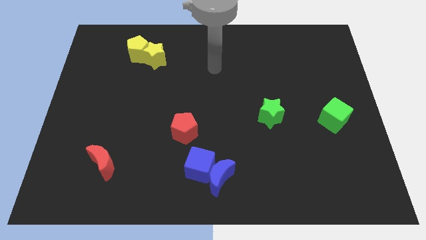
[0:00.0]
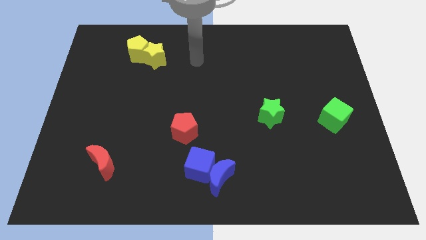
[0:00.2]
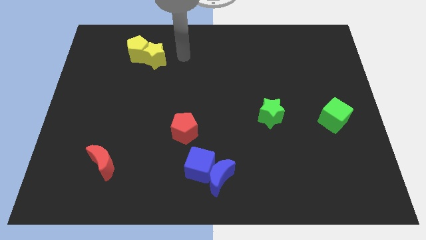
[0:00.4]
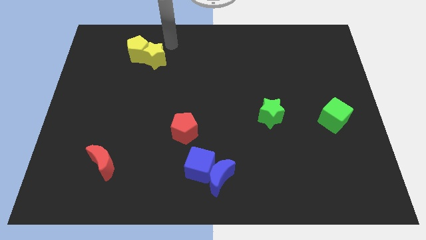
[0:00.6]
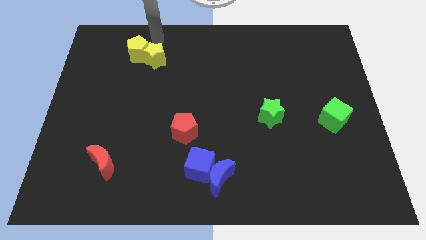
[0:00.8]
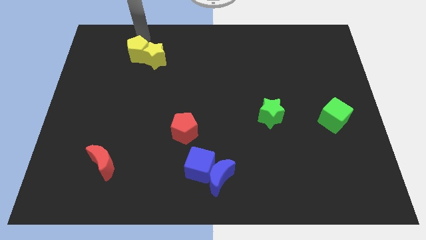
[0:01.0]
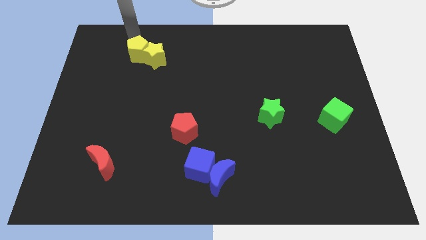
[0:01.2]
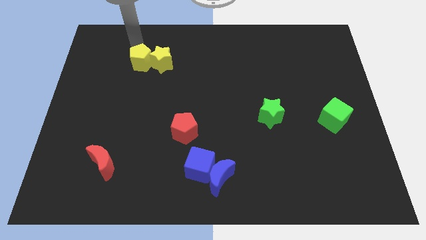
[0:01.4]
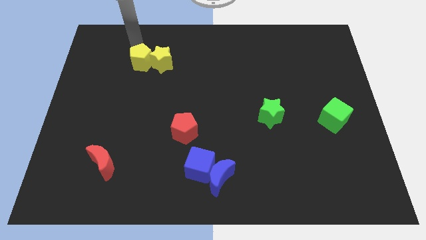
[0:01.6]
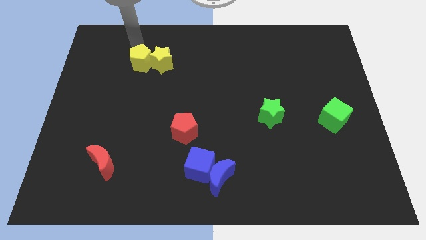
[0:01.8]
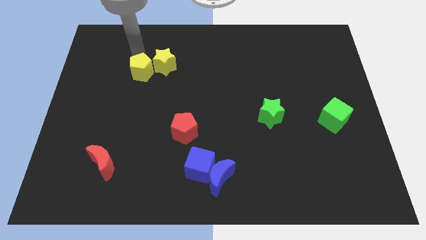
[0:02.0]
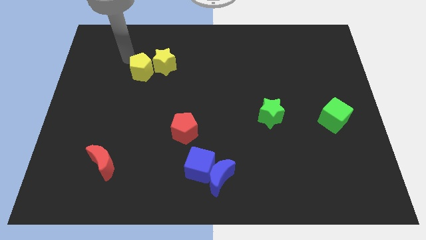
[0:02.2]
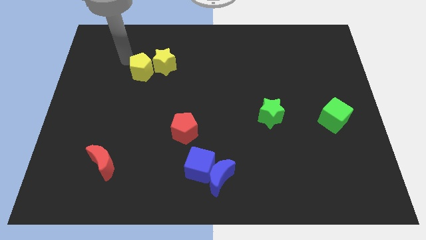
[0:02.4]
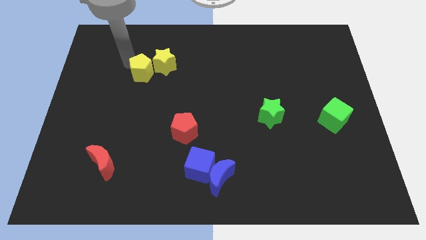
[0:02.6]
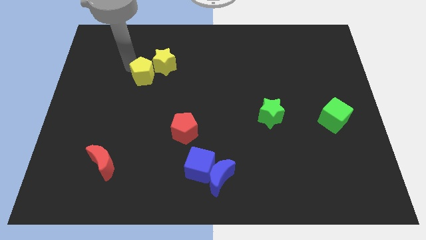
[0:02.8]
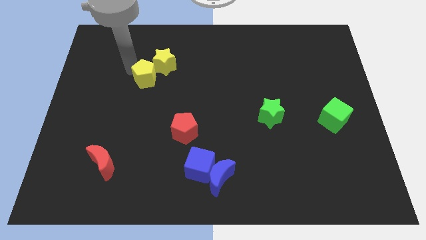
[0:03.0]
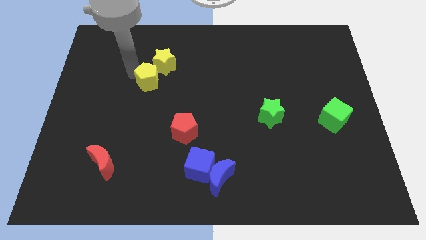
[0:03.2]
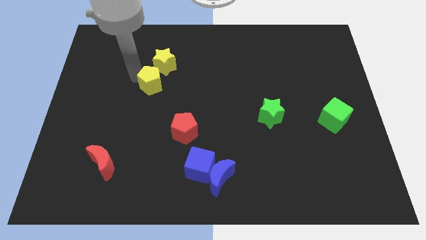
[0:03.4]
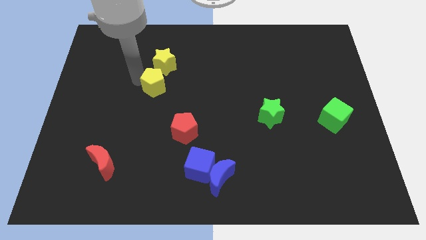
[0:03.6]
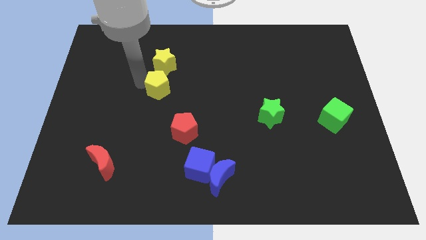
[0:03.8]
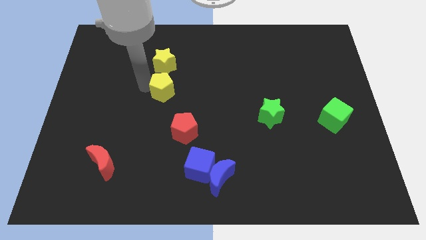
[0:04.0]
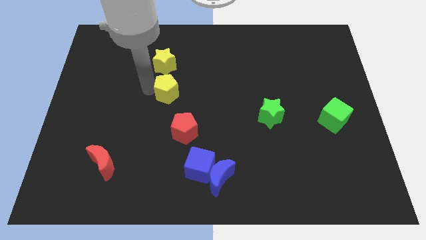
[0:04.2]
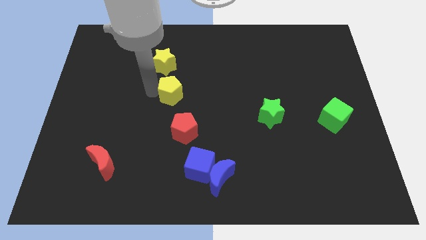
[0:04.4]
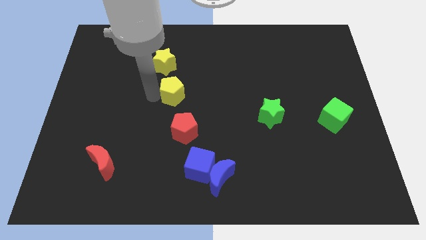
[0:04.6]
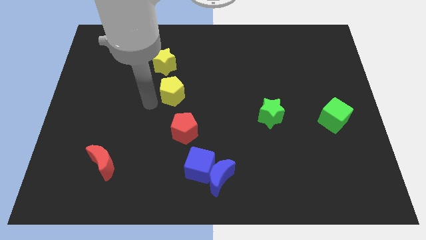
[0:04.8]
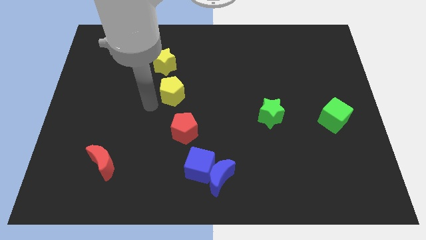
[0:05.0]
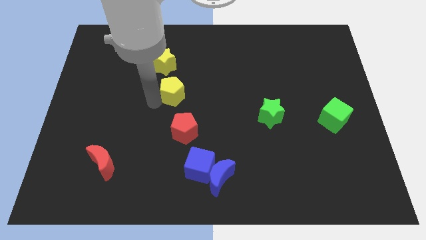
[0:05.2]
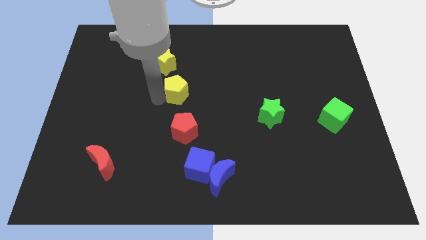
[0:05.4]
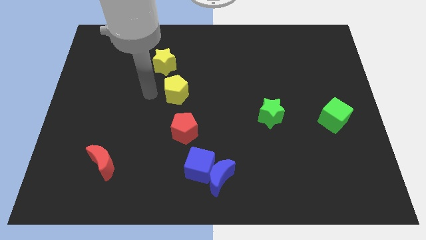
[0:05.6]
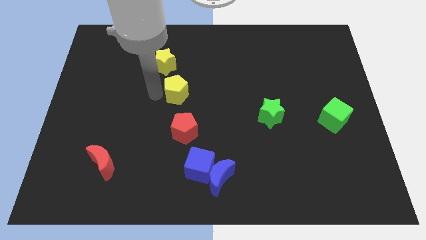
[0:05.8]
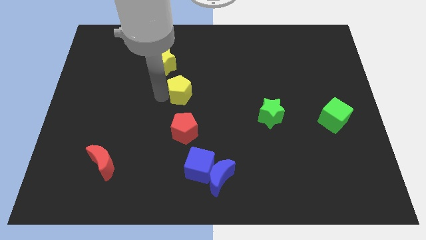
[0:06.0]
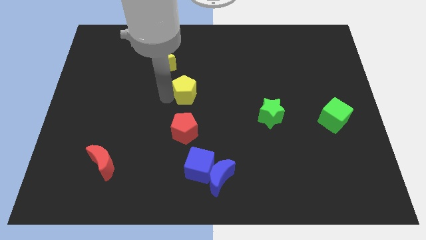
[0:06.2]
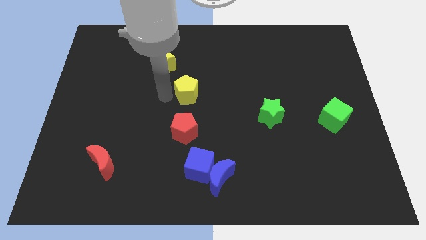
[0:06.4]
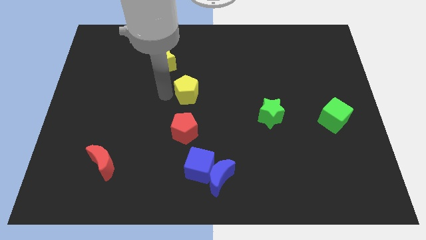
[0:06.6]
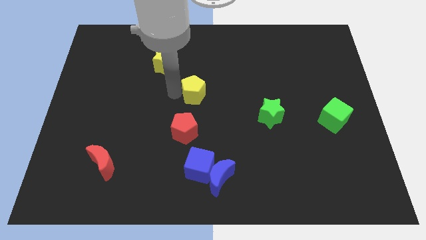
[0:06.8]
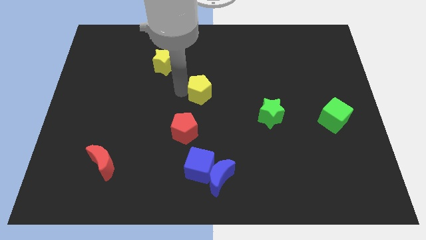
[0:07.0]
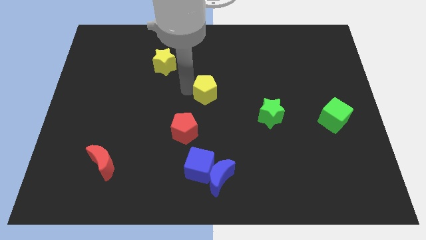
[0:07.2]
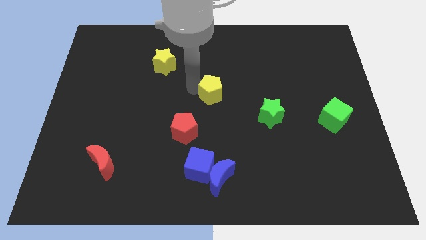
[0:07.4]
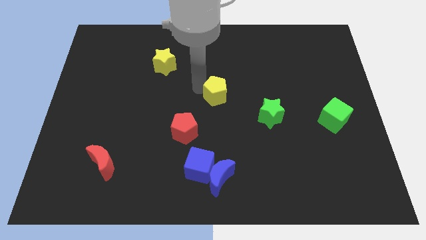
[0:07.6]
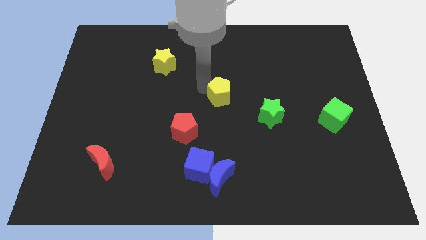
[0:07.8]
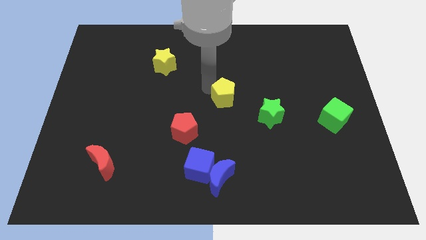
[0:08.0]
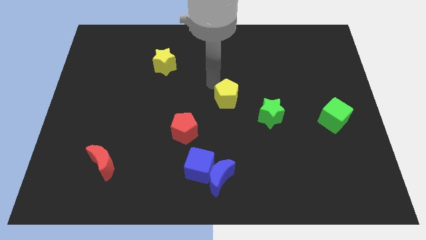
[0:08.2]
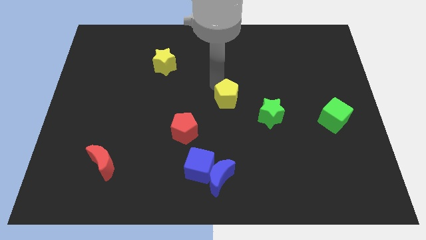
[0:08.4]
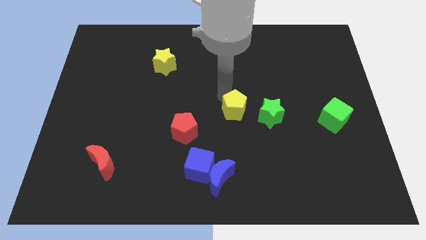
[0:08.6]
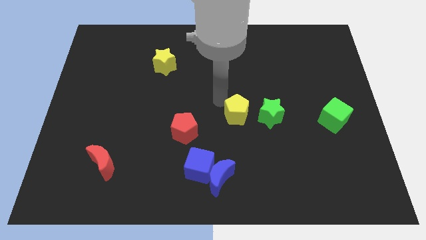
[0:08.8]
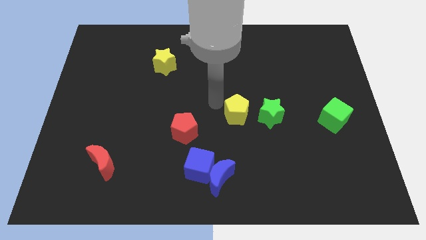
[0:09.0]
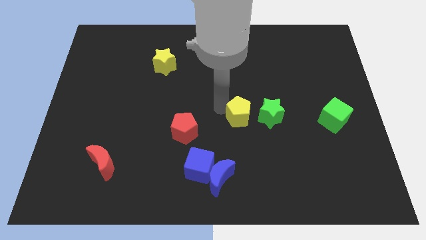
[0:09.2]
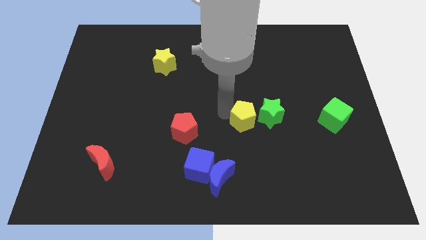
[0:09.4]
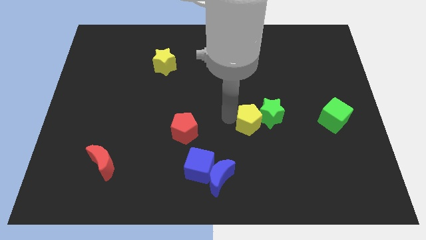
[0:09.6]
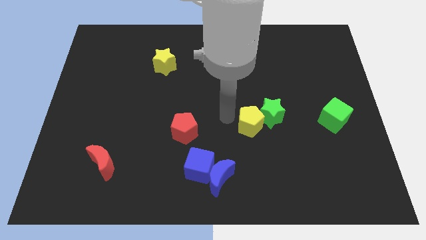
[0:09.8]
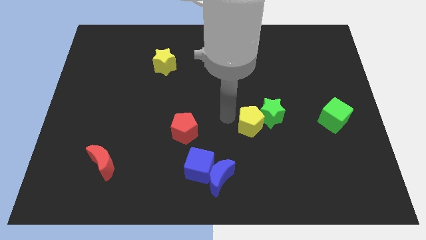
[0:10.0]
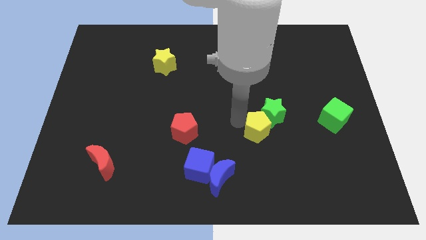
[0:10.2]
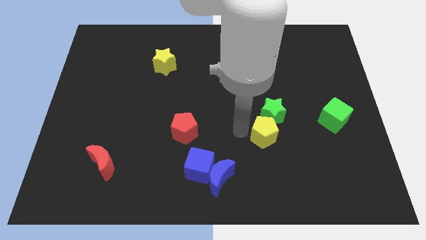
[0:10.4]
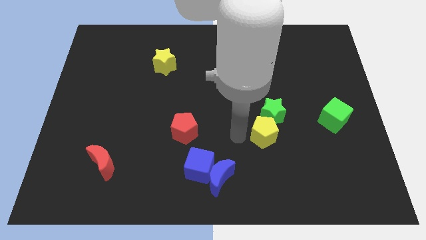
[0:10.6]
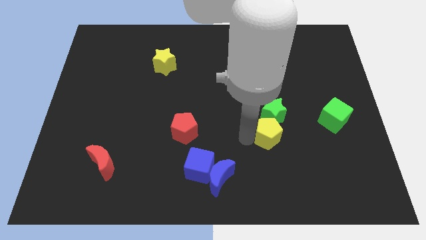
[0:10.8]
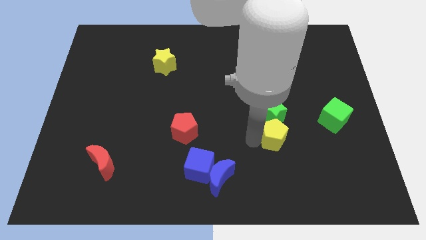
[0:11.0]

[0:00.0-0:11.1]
put the yellow pentagon to the bottom right side of the green star
